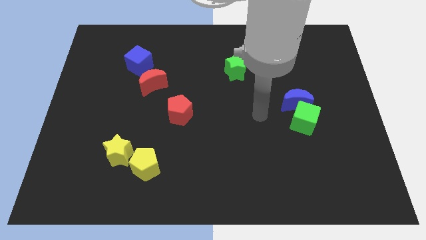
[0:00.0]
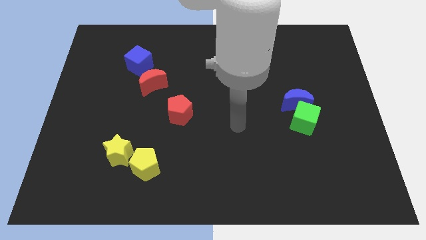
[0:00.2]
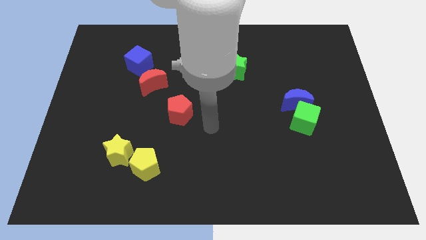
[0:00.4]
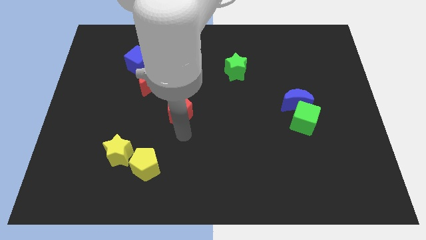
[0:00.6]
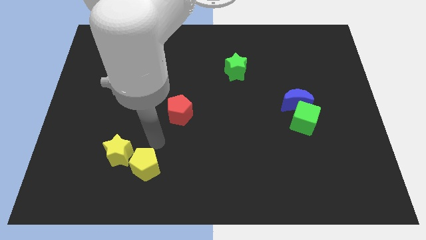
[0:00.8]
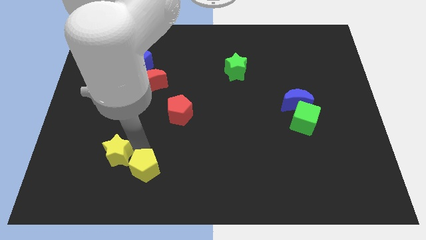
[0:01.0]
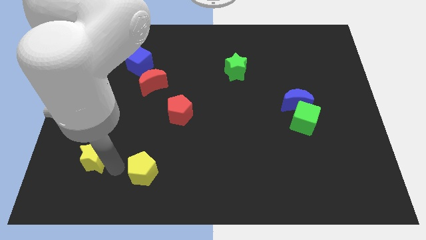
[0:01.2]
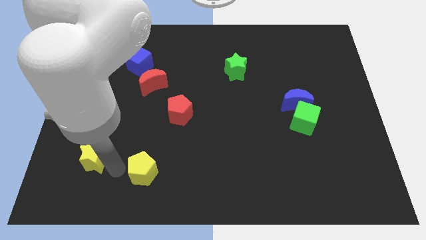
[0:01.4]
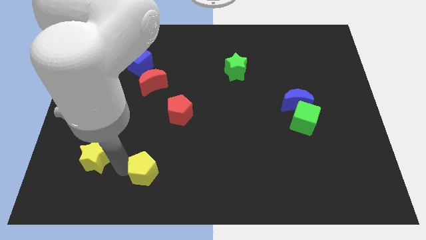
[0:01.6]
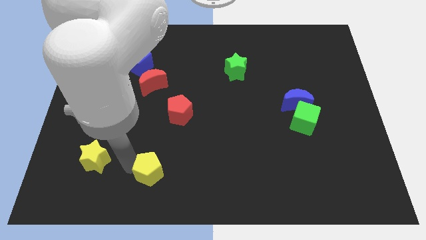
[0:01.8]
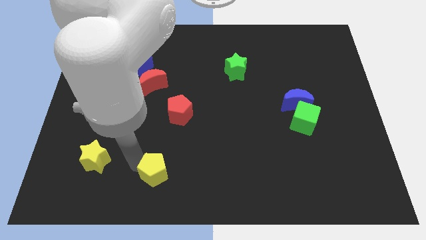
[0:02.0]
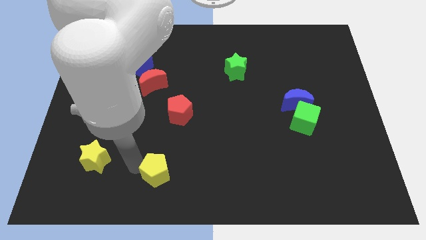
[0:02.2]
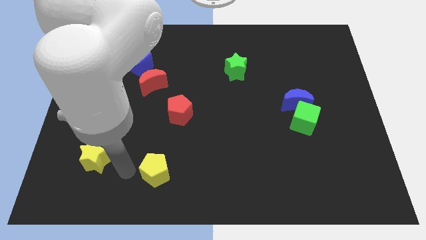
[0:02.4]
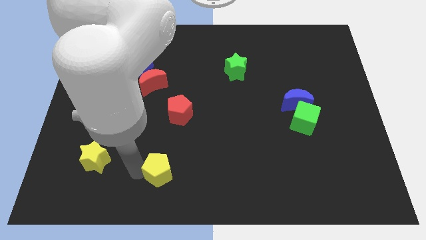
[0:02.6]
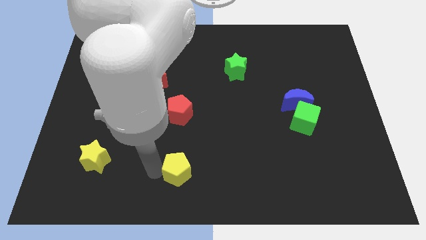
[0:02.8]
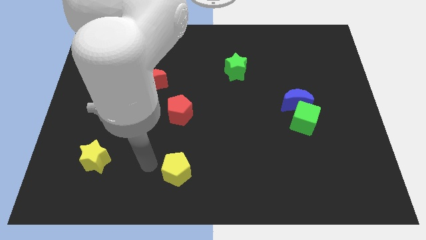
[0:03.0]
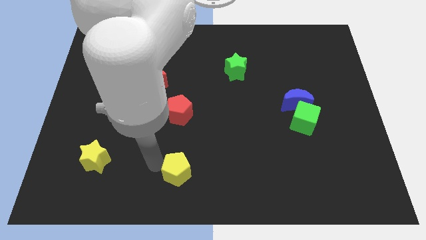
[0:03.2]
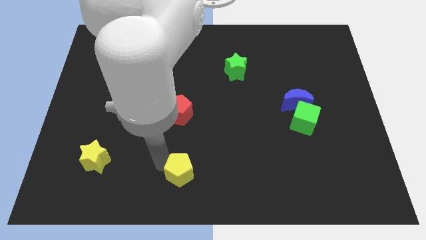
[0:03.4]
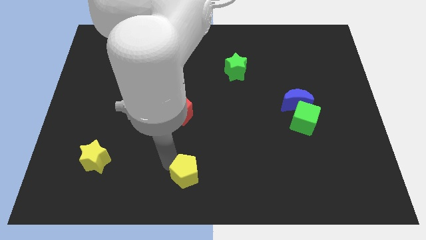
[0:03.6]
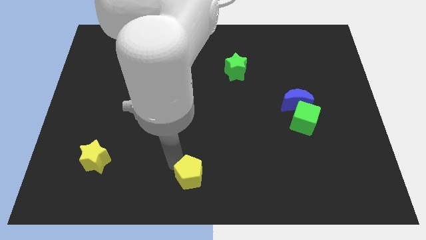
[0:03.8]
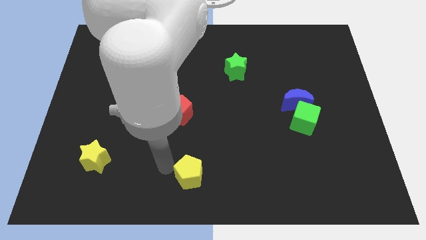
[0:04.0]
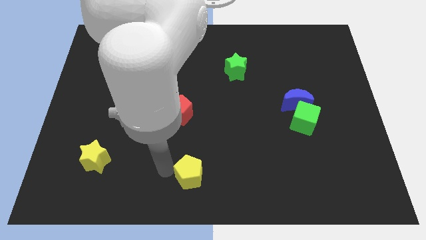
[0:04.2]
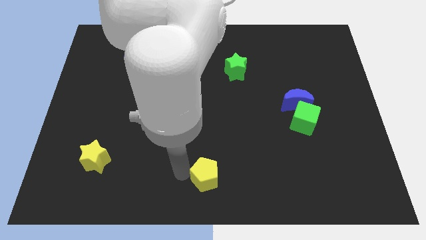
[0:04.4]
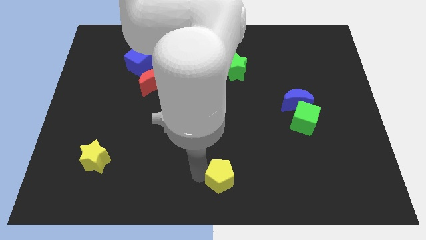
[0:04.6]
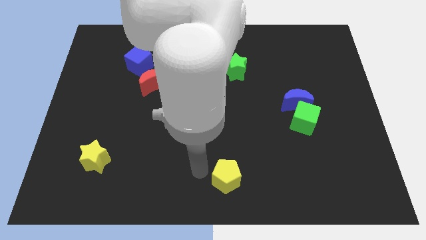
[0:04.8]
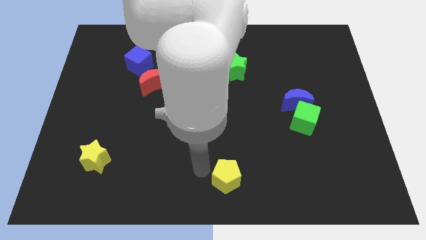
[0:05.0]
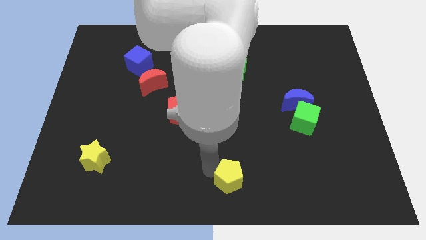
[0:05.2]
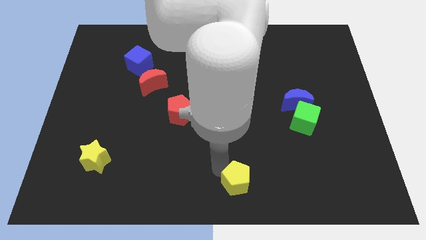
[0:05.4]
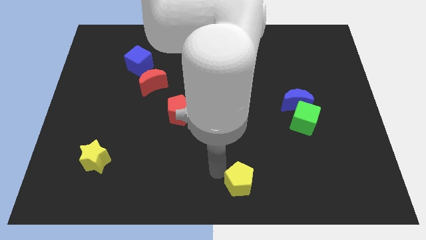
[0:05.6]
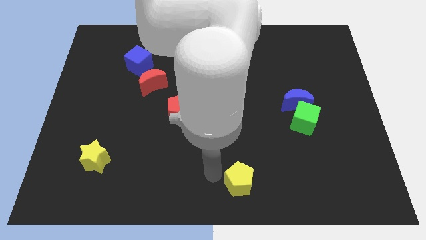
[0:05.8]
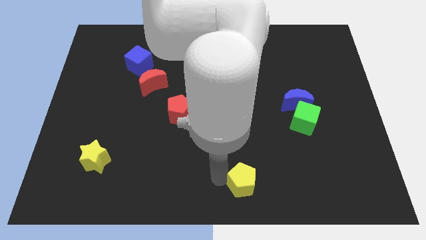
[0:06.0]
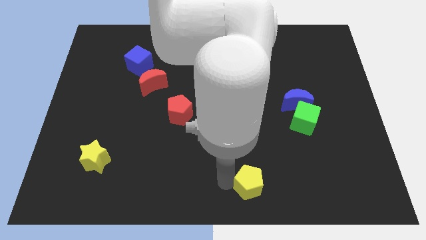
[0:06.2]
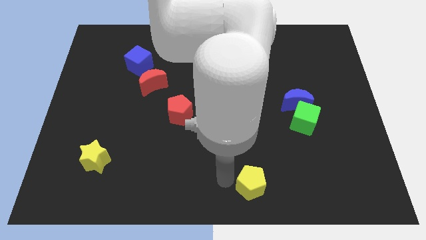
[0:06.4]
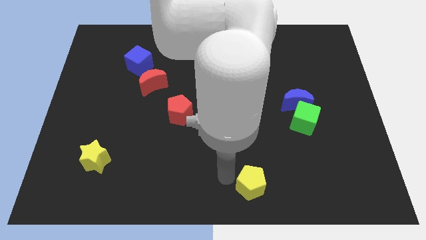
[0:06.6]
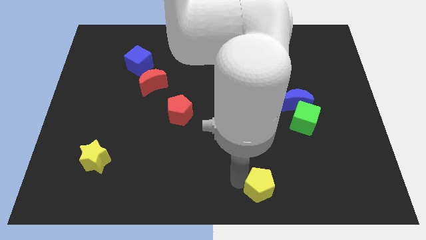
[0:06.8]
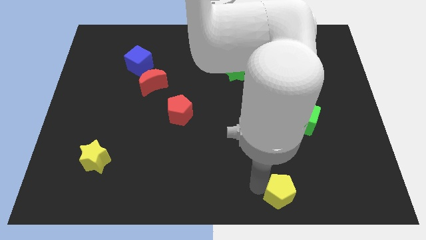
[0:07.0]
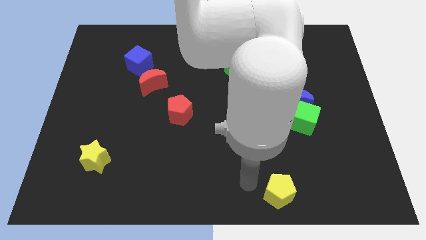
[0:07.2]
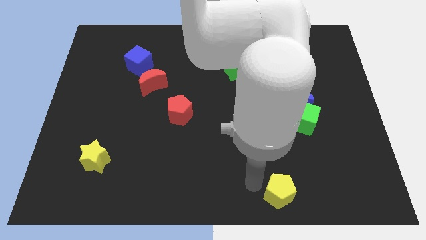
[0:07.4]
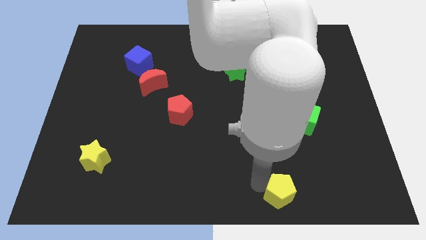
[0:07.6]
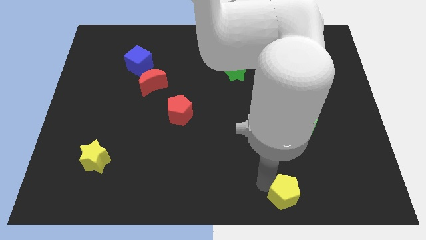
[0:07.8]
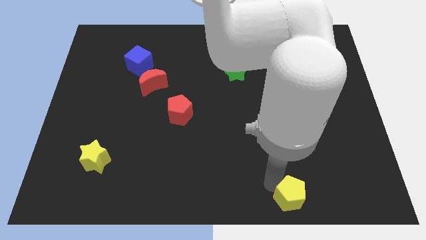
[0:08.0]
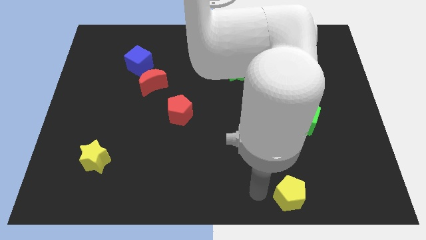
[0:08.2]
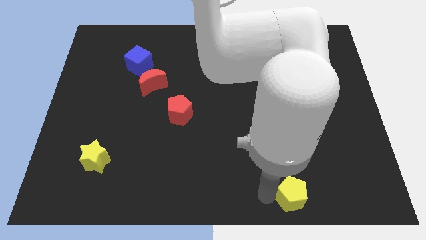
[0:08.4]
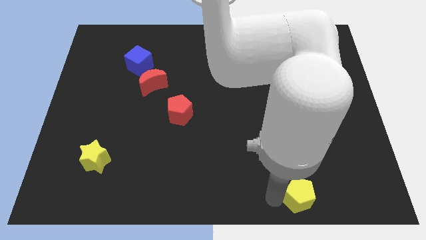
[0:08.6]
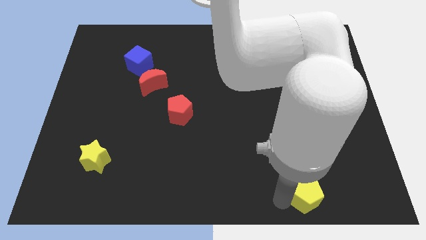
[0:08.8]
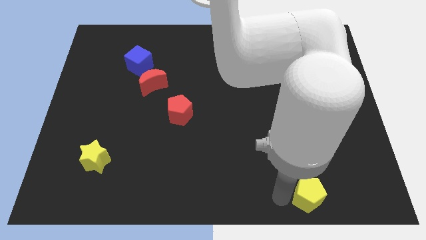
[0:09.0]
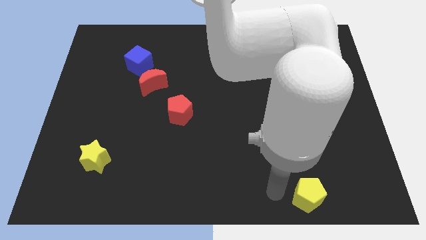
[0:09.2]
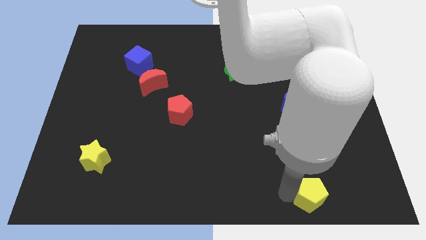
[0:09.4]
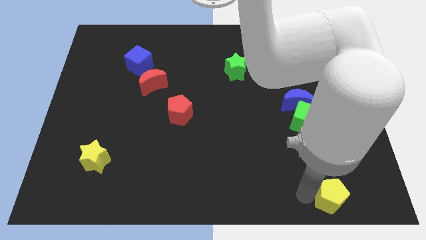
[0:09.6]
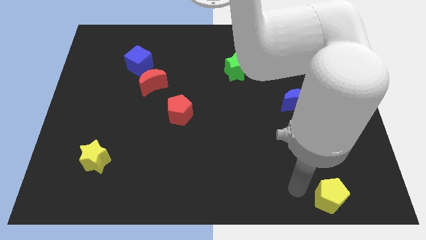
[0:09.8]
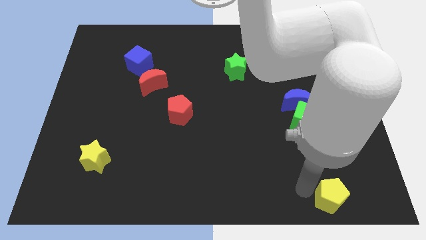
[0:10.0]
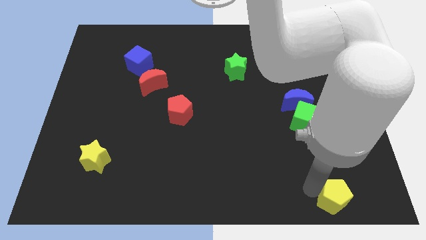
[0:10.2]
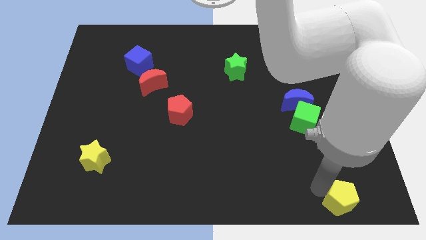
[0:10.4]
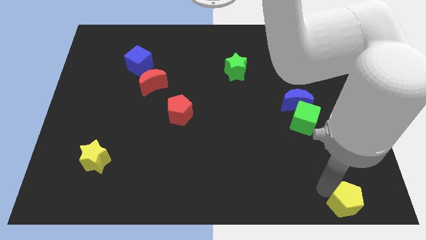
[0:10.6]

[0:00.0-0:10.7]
move the yellow pentagon to the bottom right of the board

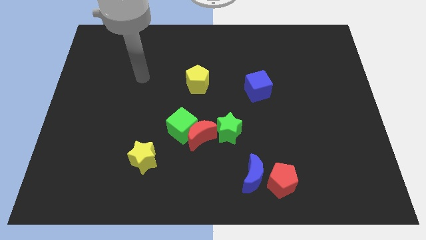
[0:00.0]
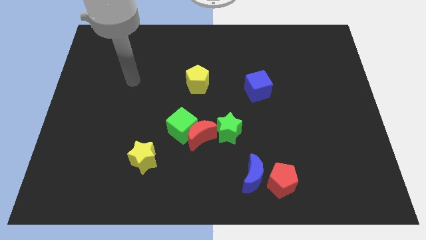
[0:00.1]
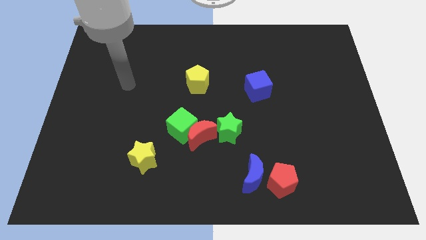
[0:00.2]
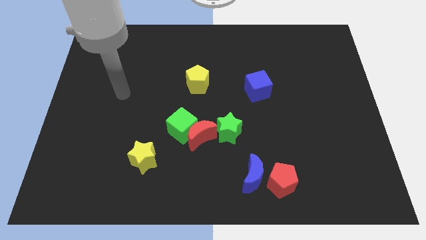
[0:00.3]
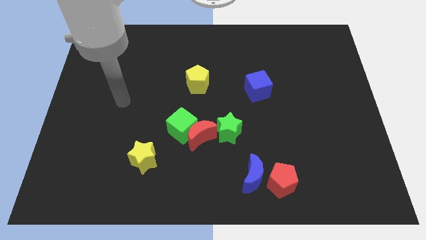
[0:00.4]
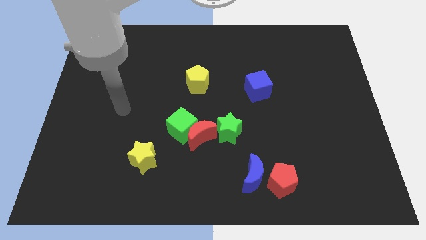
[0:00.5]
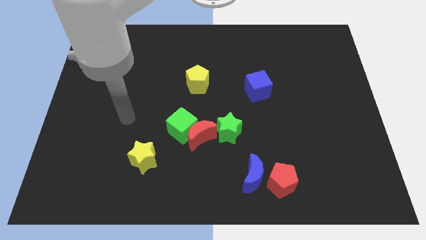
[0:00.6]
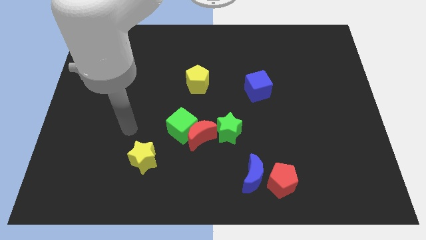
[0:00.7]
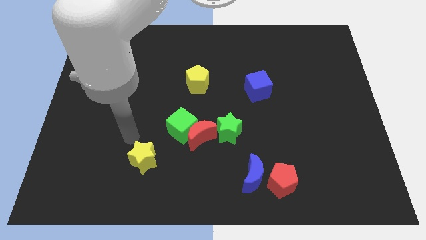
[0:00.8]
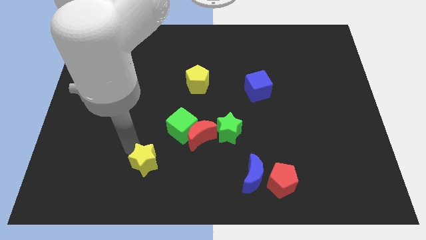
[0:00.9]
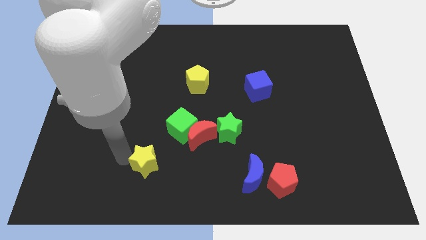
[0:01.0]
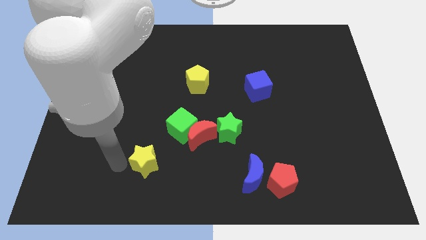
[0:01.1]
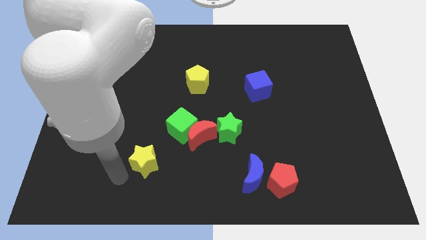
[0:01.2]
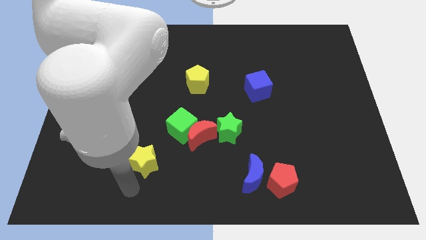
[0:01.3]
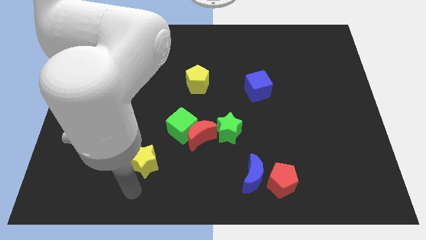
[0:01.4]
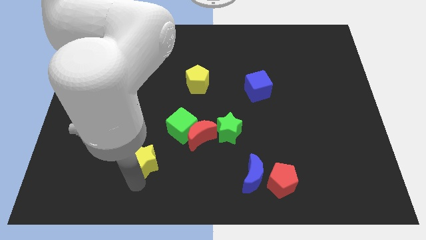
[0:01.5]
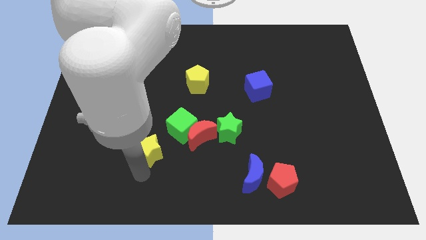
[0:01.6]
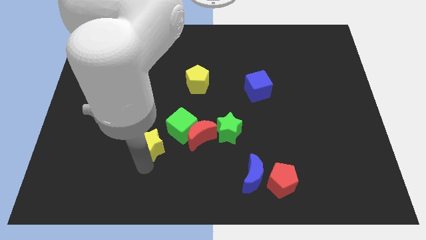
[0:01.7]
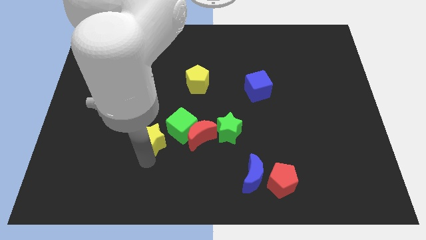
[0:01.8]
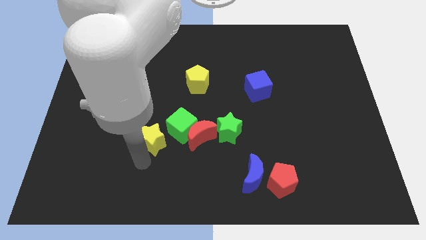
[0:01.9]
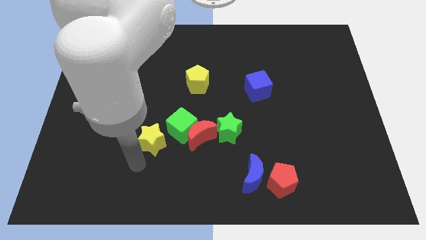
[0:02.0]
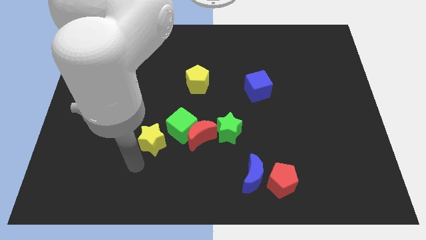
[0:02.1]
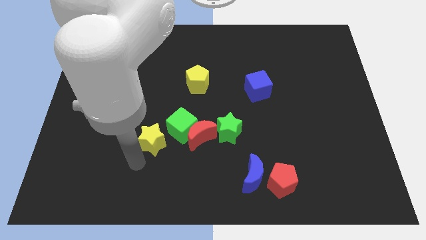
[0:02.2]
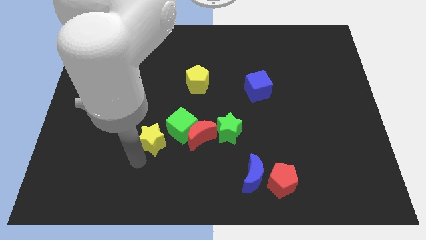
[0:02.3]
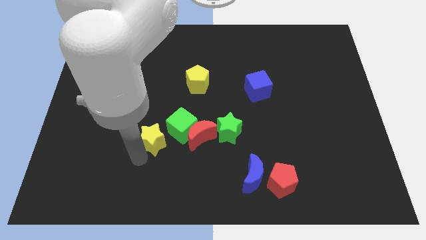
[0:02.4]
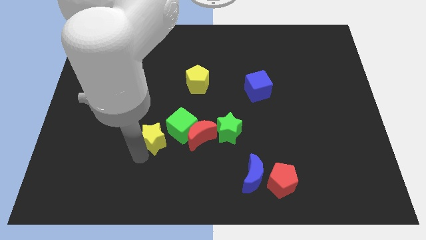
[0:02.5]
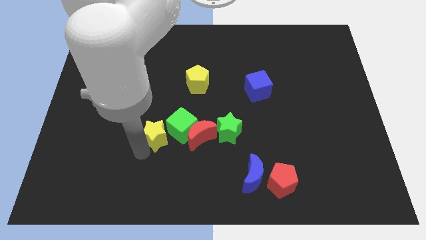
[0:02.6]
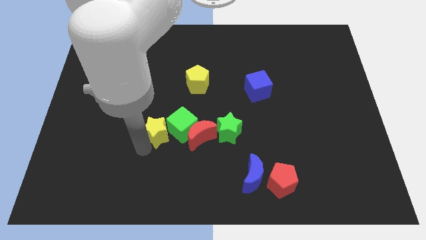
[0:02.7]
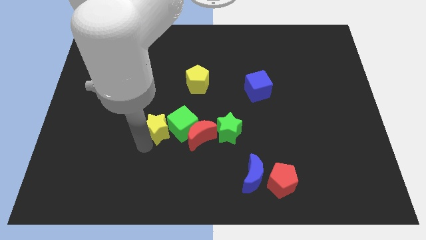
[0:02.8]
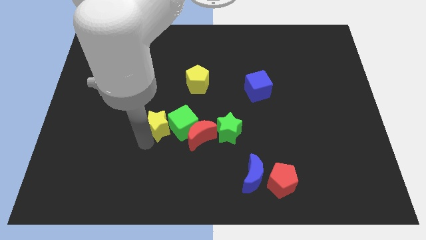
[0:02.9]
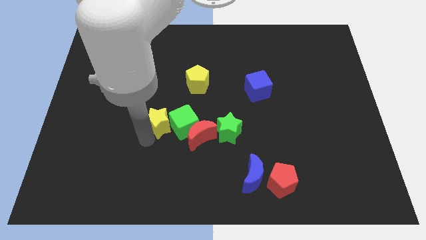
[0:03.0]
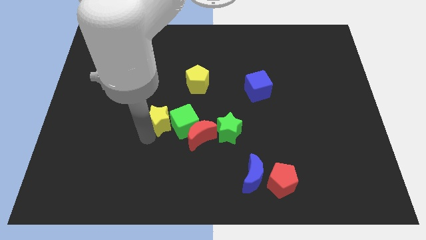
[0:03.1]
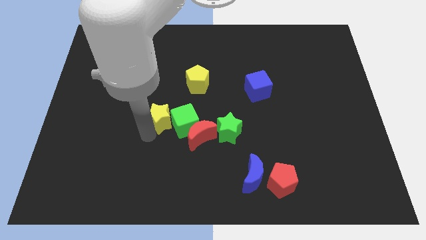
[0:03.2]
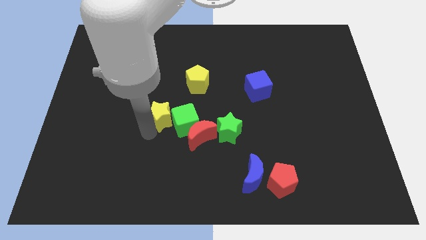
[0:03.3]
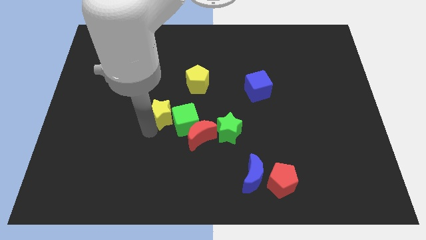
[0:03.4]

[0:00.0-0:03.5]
slide the yellow star to the middle
